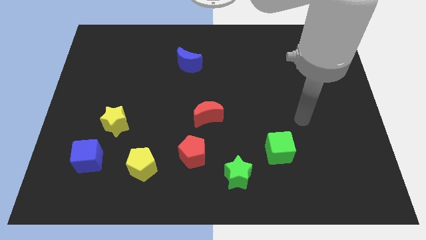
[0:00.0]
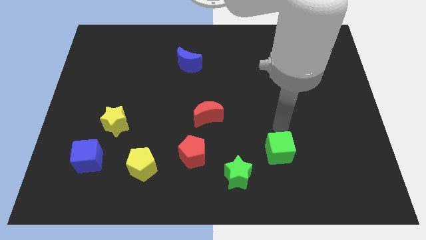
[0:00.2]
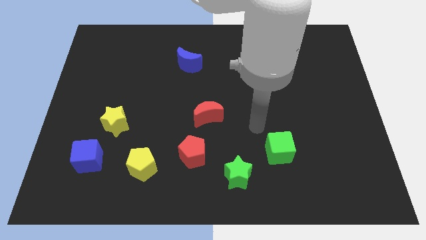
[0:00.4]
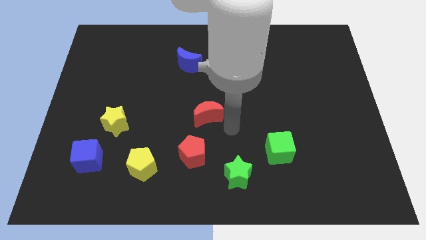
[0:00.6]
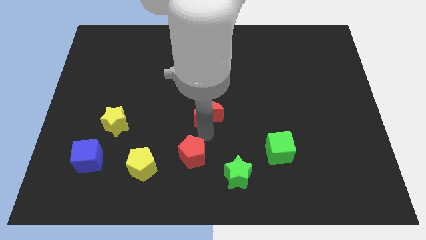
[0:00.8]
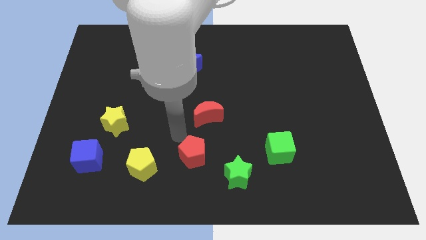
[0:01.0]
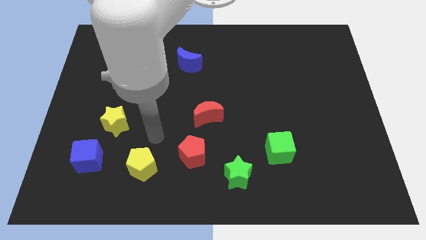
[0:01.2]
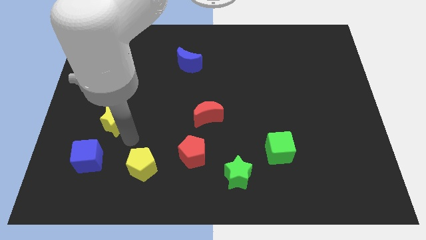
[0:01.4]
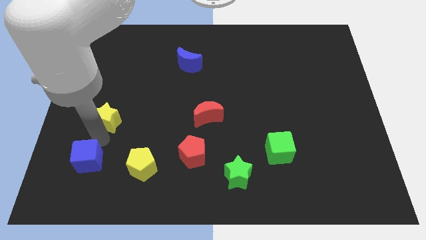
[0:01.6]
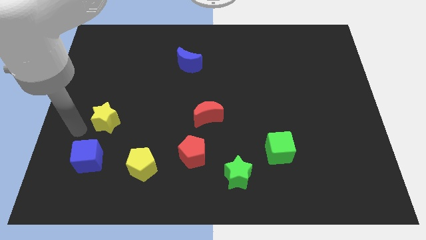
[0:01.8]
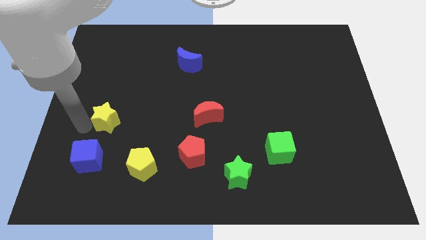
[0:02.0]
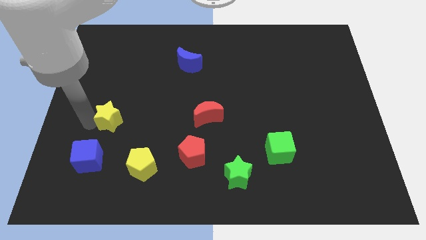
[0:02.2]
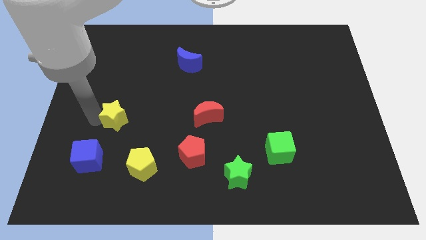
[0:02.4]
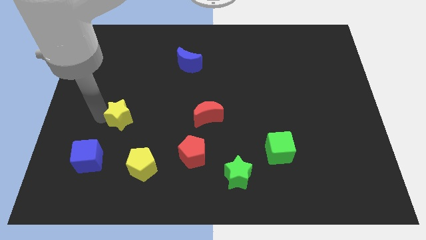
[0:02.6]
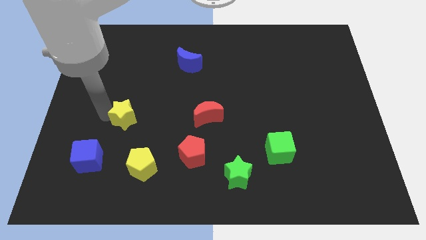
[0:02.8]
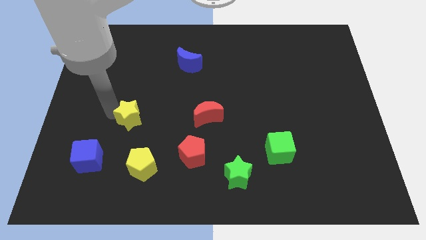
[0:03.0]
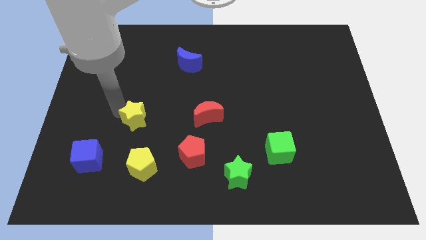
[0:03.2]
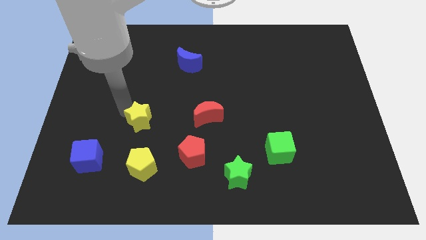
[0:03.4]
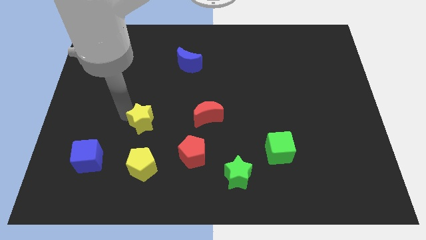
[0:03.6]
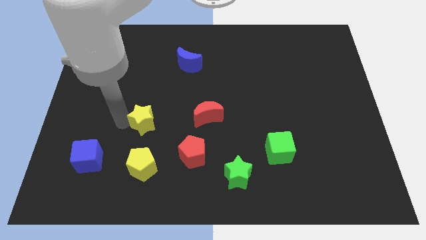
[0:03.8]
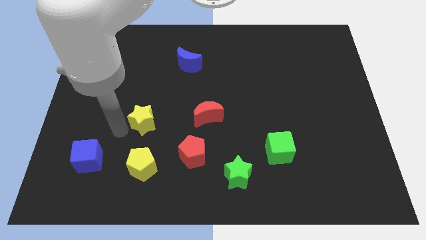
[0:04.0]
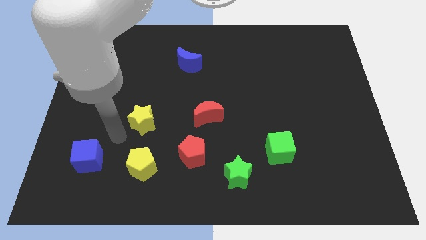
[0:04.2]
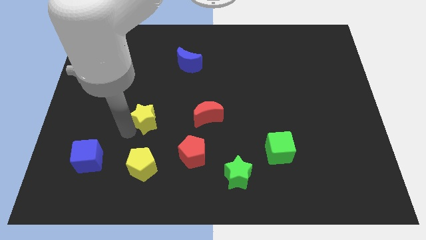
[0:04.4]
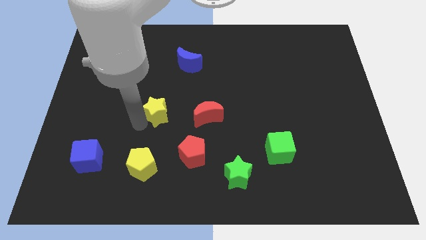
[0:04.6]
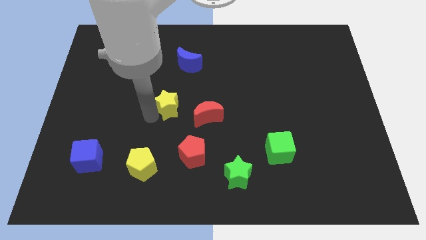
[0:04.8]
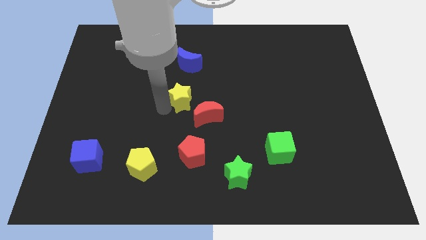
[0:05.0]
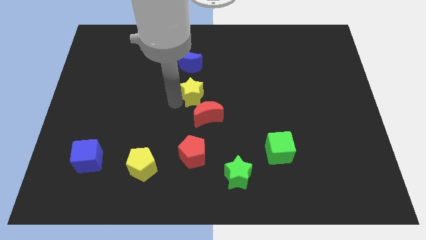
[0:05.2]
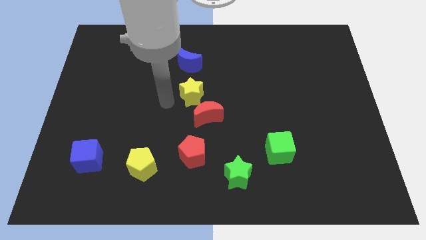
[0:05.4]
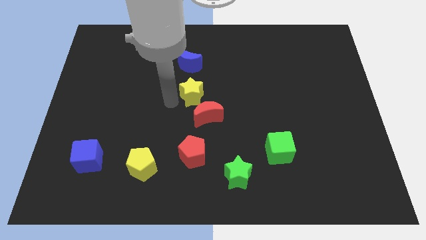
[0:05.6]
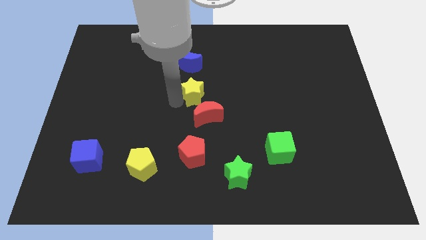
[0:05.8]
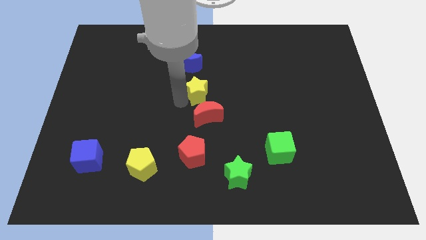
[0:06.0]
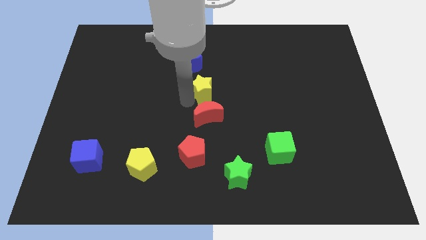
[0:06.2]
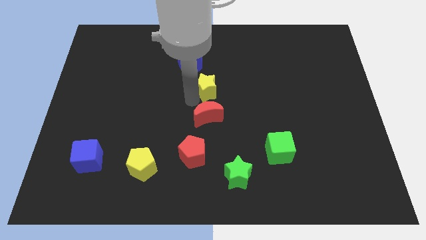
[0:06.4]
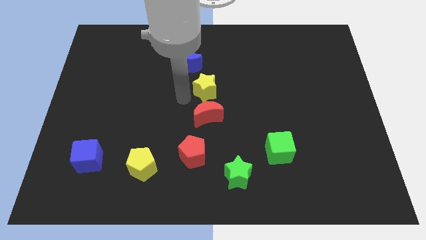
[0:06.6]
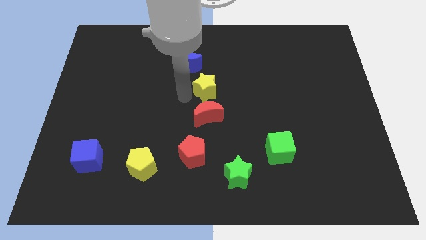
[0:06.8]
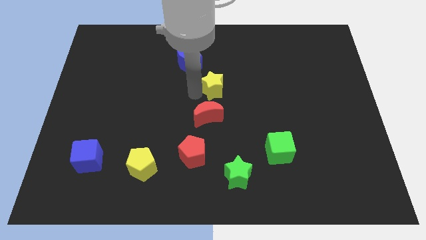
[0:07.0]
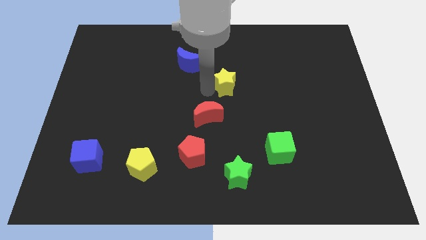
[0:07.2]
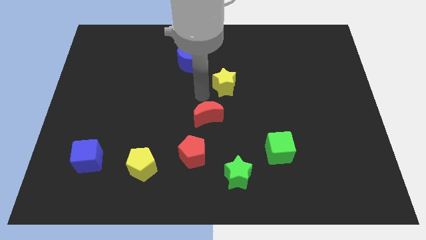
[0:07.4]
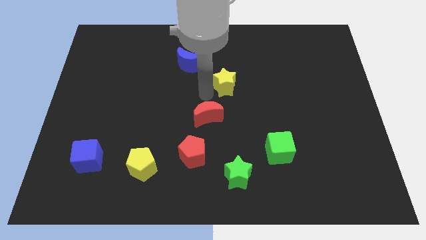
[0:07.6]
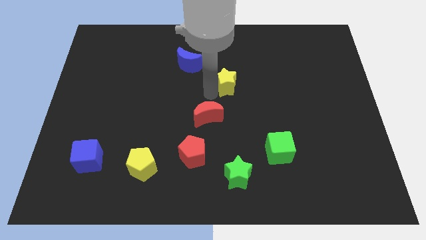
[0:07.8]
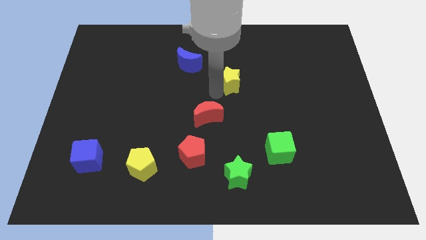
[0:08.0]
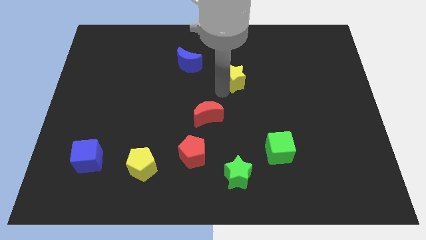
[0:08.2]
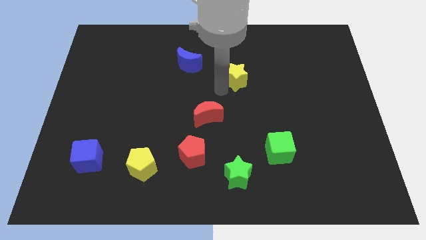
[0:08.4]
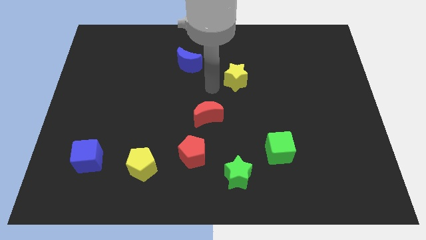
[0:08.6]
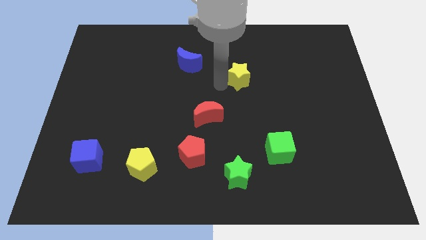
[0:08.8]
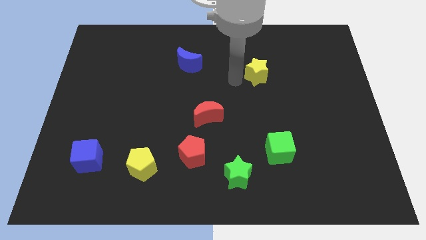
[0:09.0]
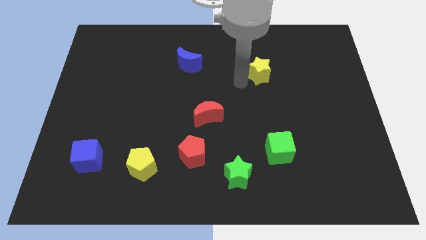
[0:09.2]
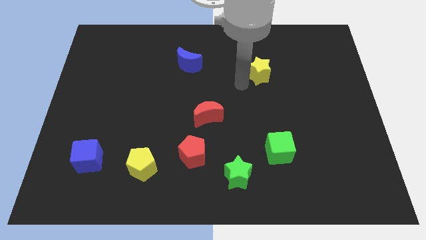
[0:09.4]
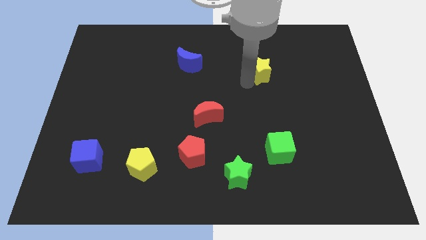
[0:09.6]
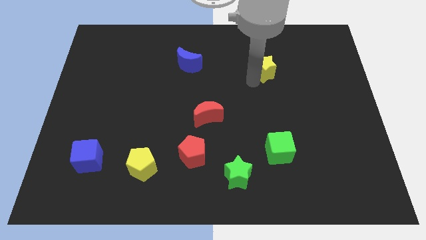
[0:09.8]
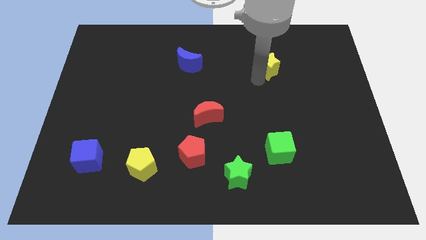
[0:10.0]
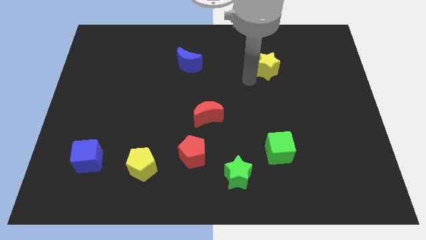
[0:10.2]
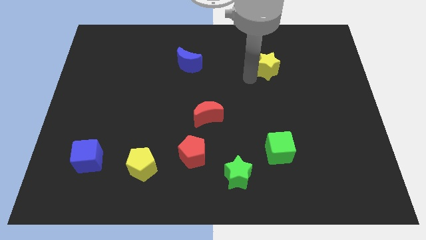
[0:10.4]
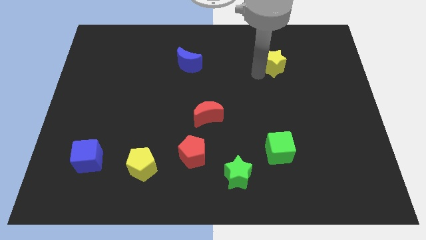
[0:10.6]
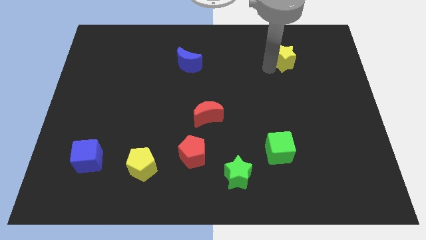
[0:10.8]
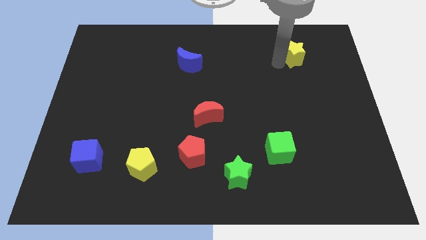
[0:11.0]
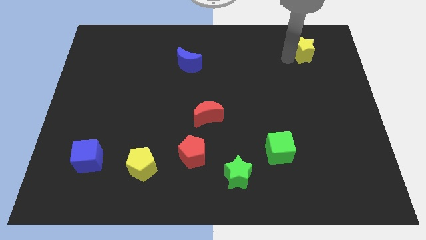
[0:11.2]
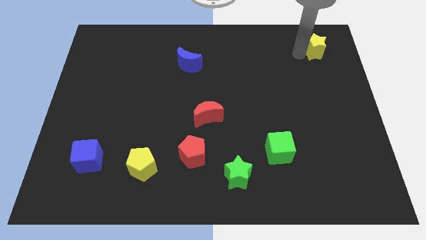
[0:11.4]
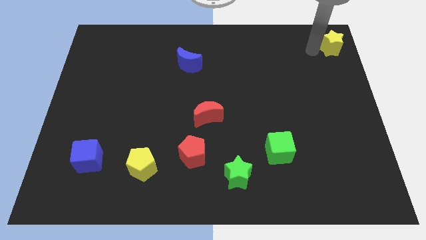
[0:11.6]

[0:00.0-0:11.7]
move the yellow star to the top right

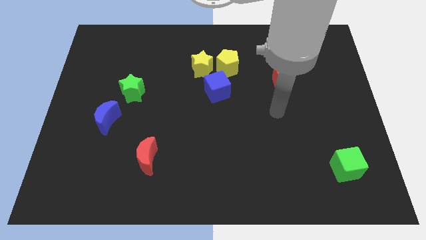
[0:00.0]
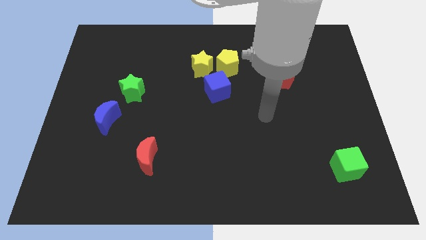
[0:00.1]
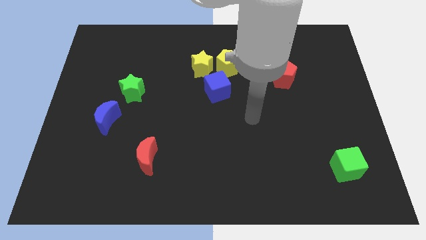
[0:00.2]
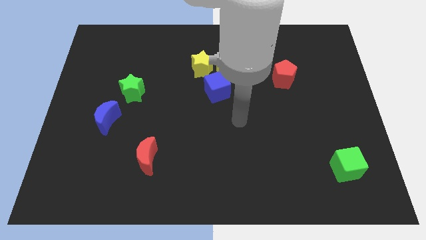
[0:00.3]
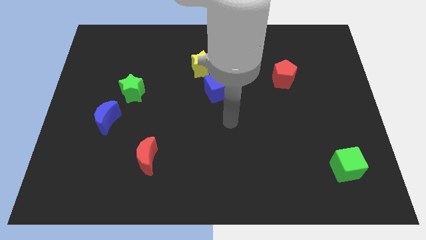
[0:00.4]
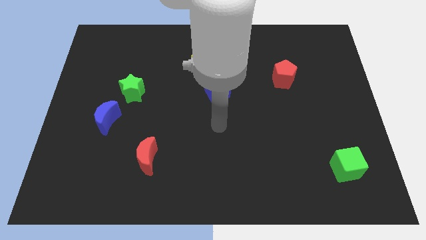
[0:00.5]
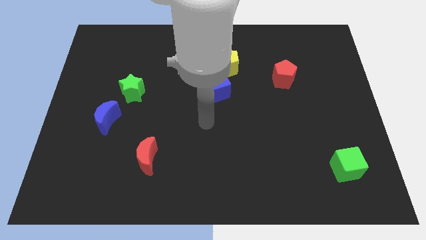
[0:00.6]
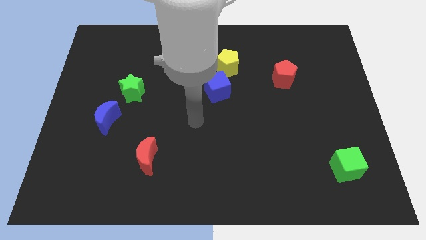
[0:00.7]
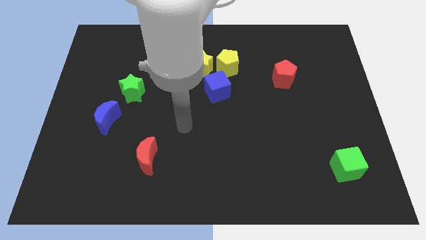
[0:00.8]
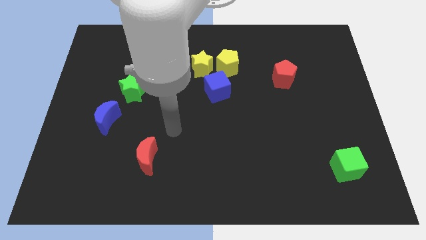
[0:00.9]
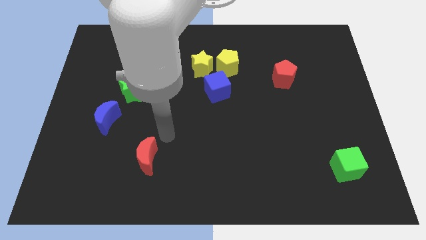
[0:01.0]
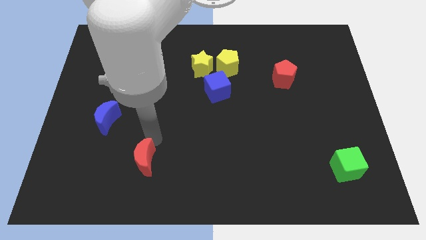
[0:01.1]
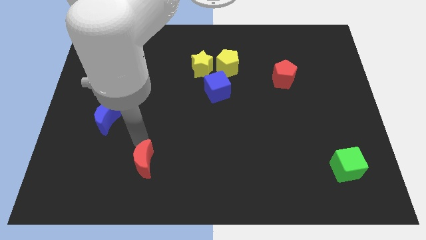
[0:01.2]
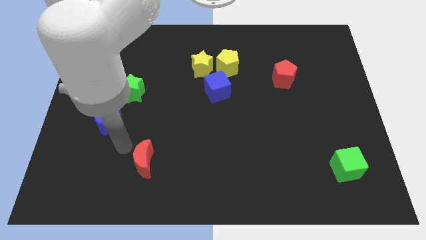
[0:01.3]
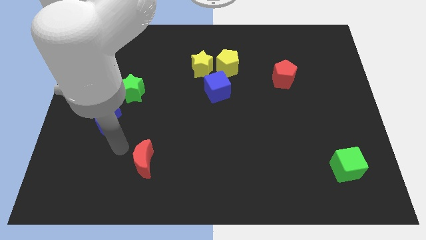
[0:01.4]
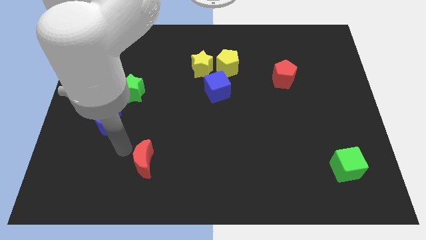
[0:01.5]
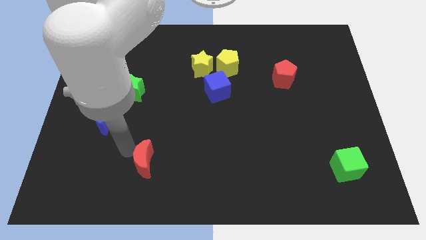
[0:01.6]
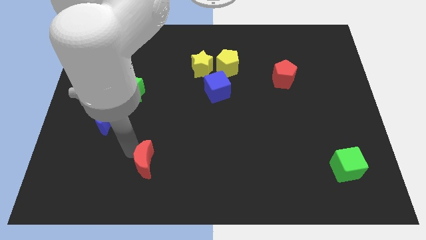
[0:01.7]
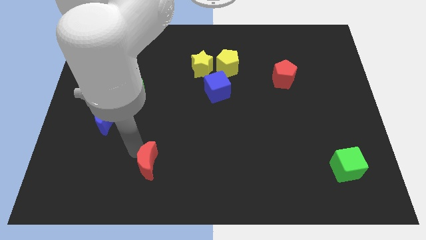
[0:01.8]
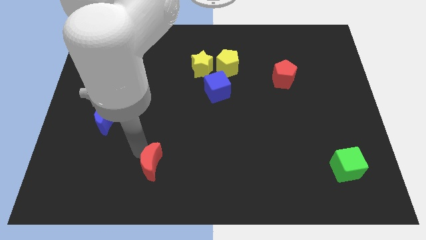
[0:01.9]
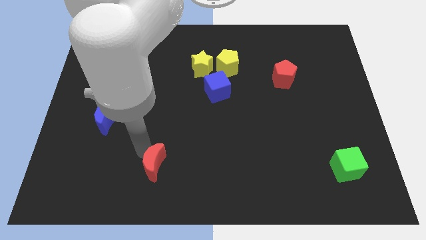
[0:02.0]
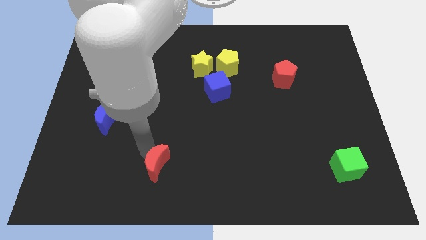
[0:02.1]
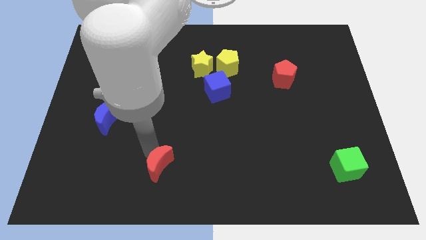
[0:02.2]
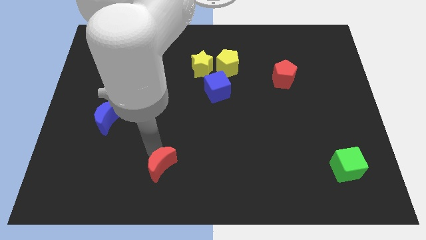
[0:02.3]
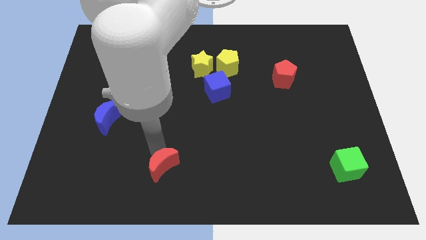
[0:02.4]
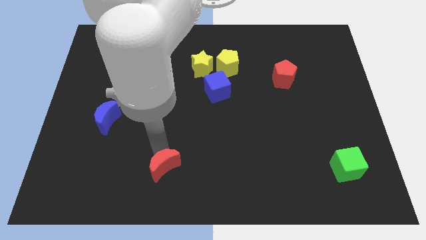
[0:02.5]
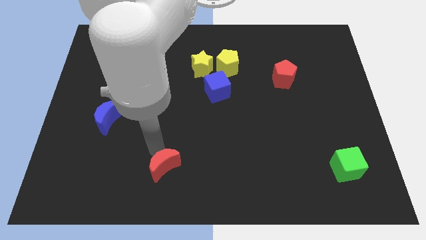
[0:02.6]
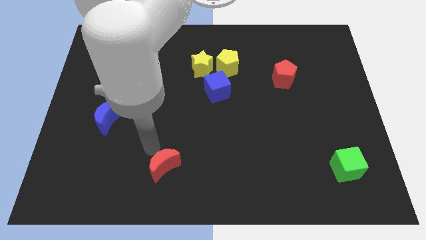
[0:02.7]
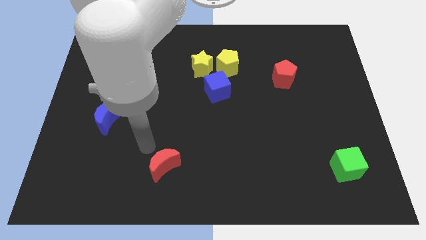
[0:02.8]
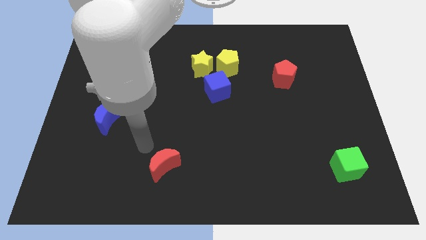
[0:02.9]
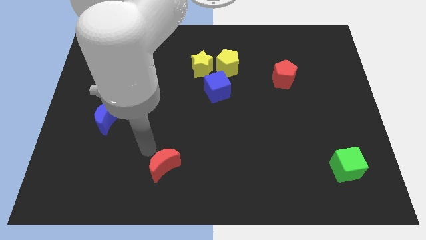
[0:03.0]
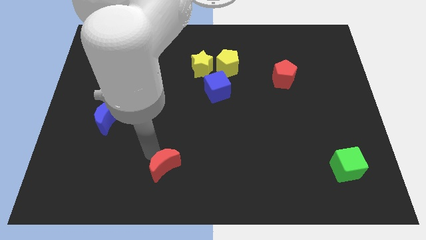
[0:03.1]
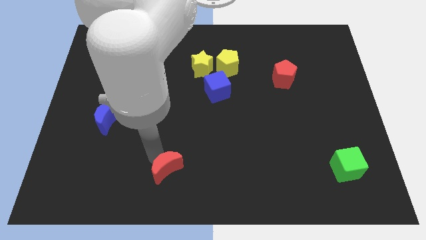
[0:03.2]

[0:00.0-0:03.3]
push the red moon to the bottom
